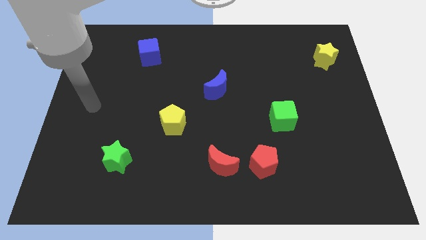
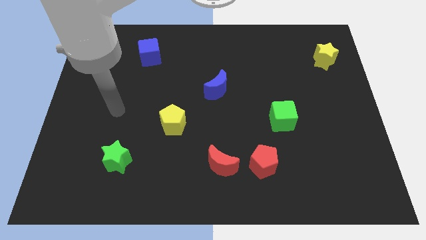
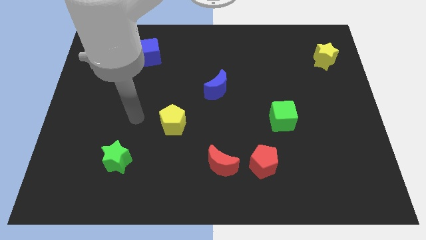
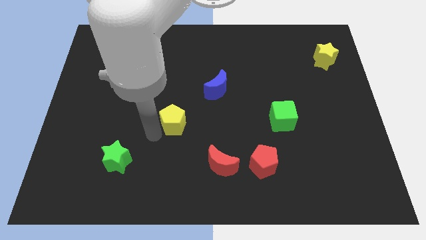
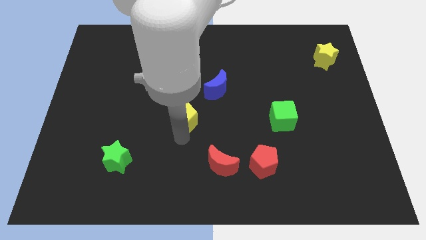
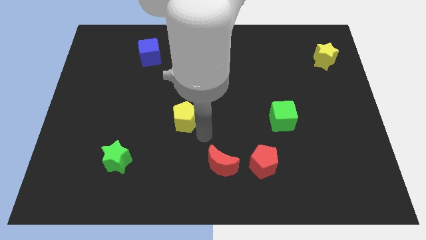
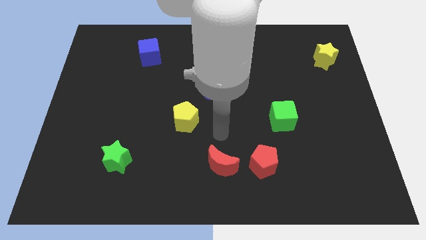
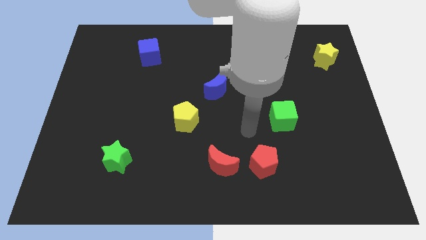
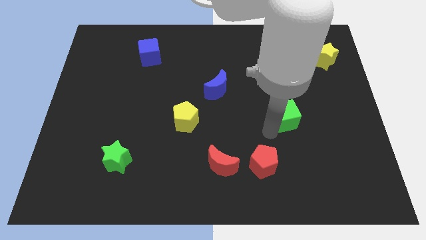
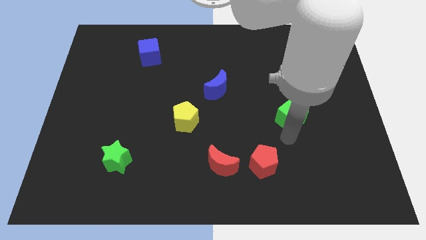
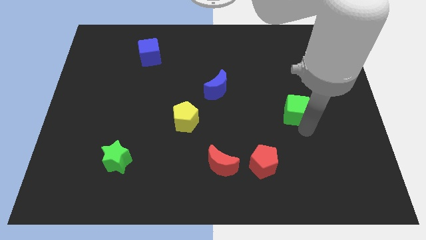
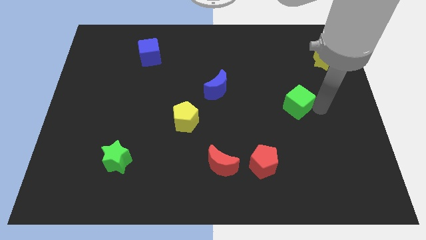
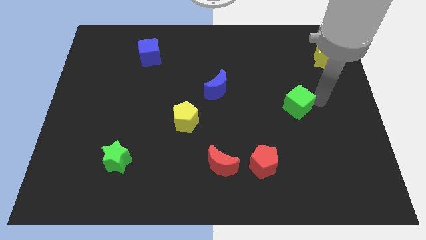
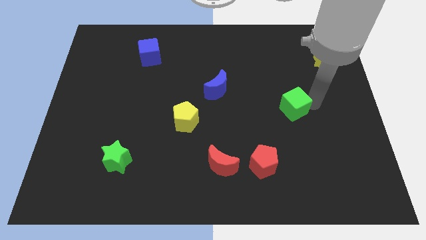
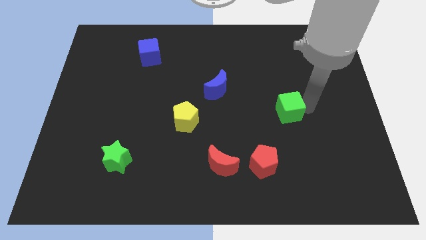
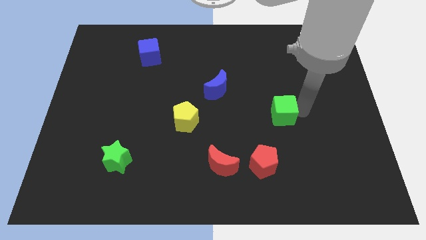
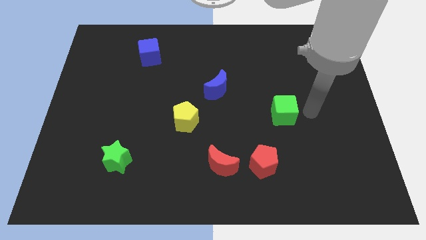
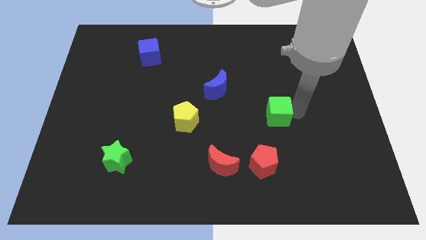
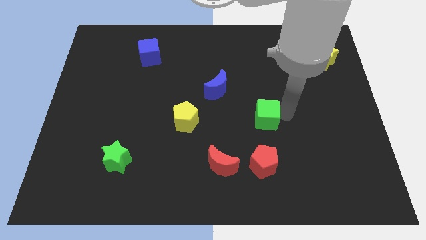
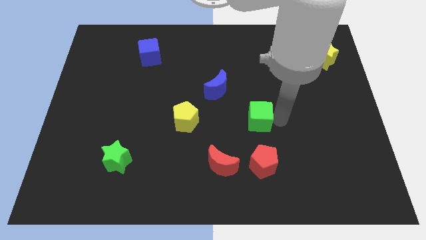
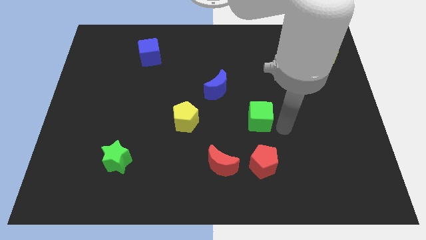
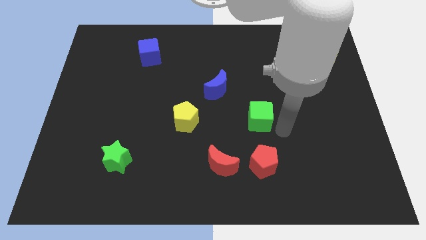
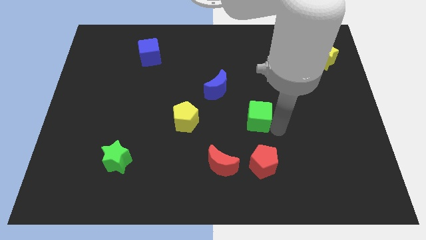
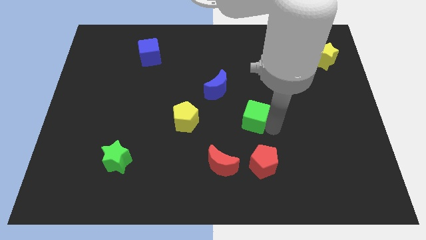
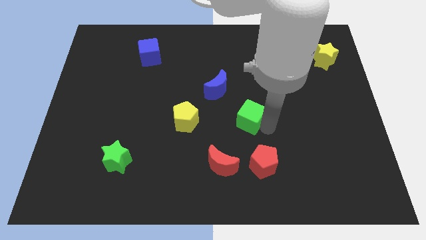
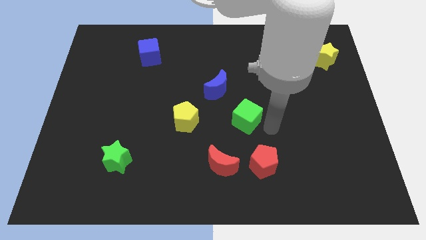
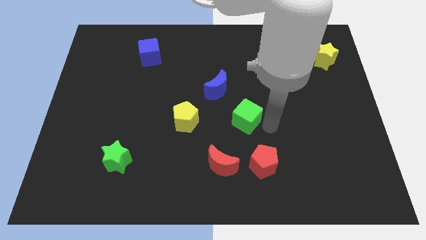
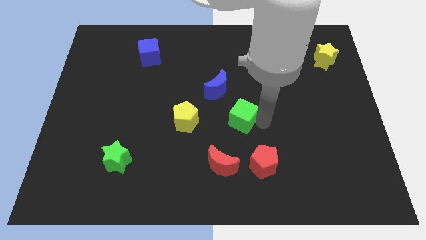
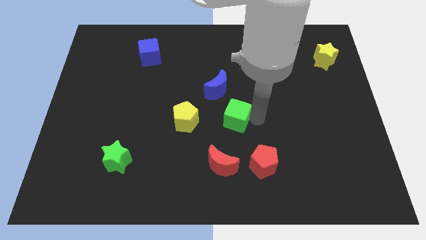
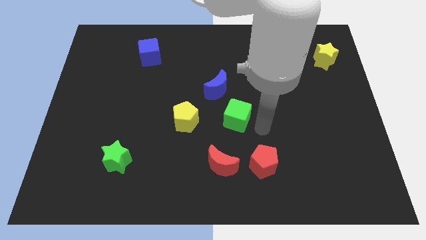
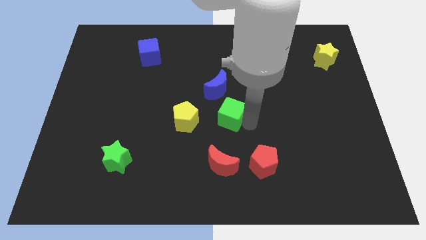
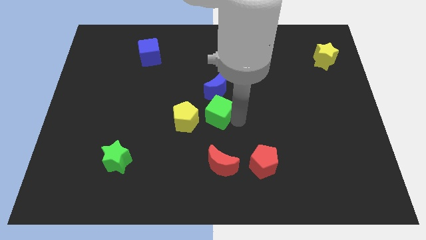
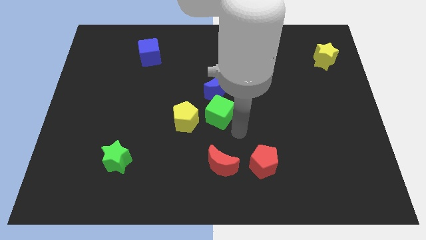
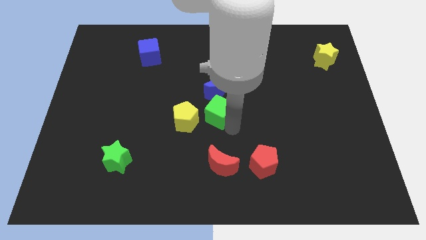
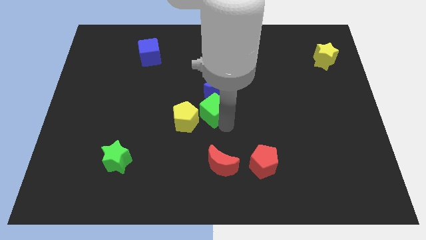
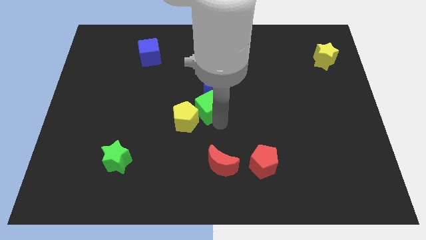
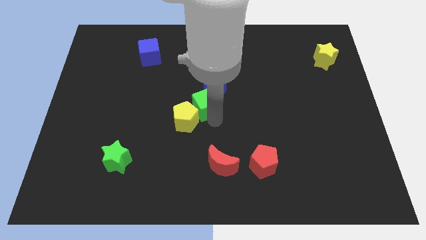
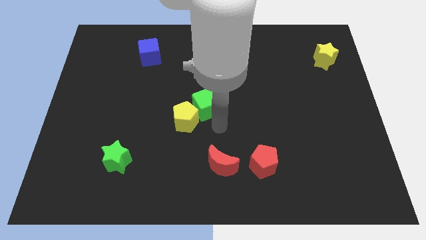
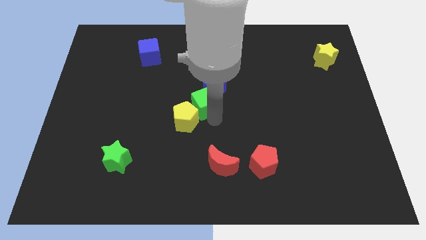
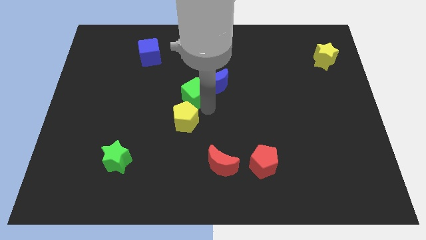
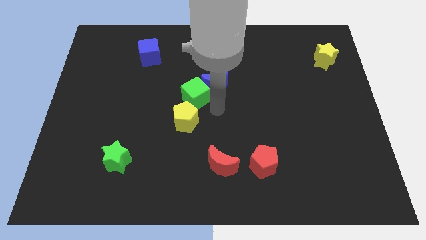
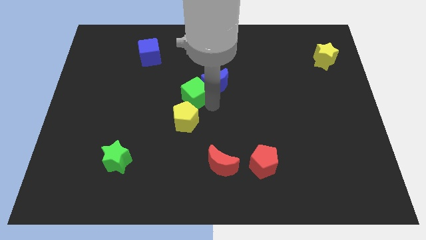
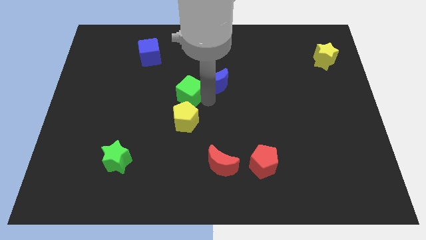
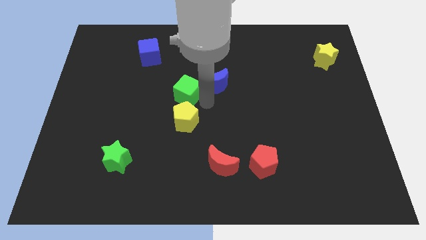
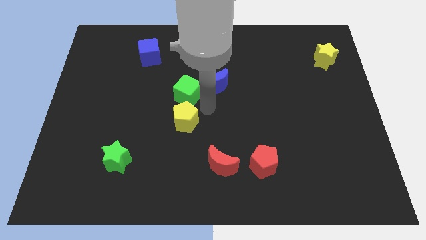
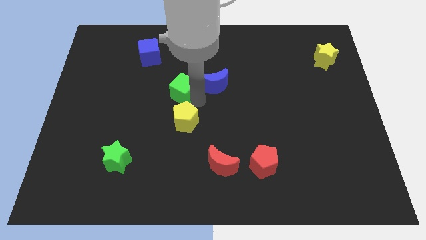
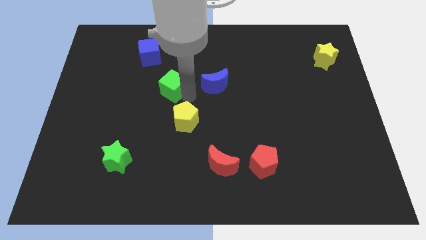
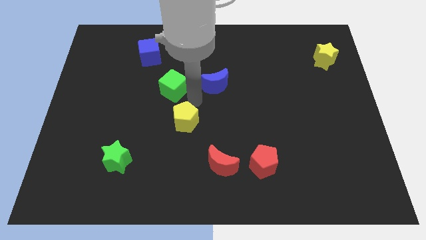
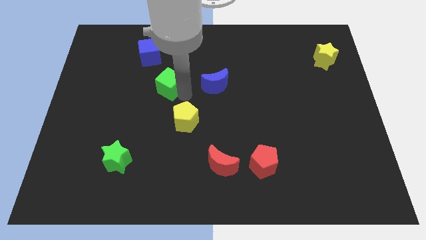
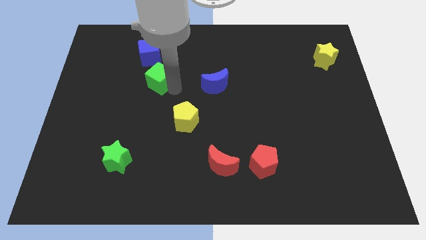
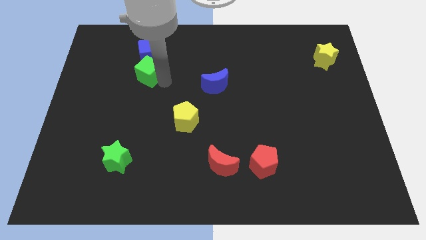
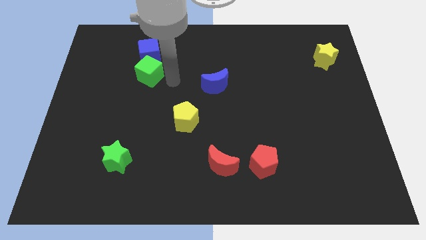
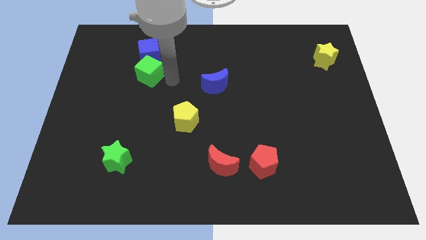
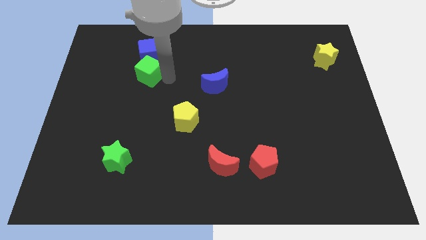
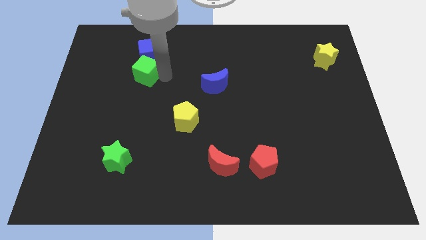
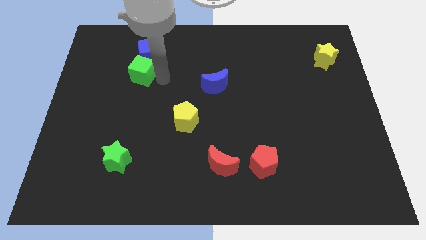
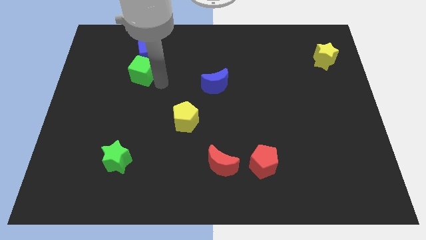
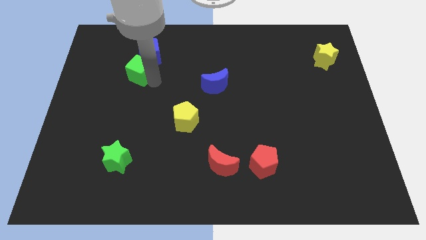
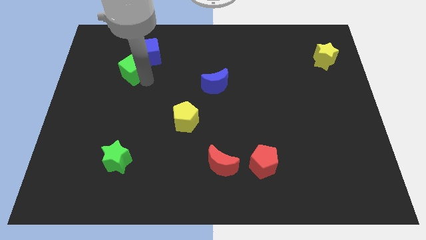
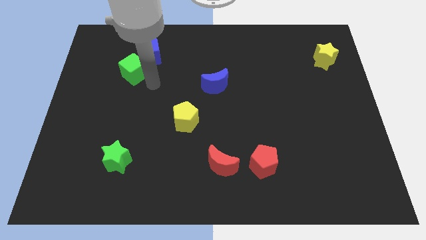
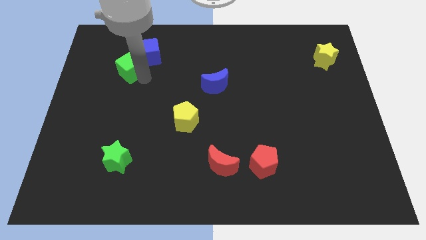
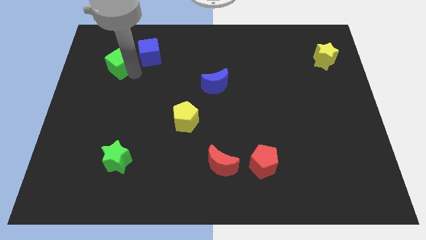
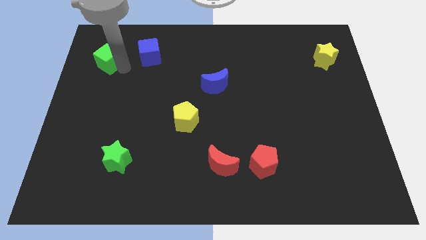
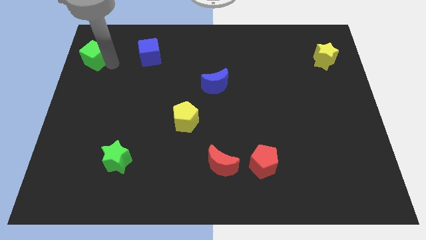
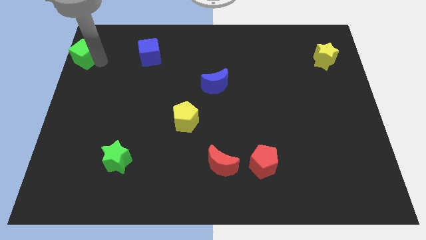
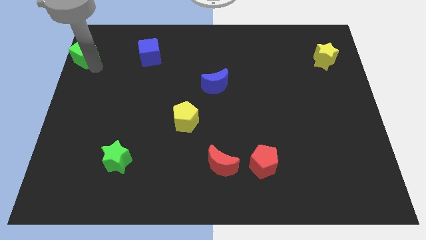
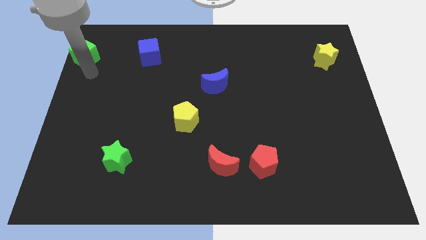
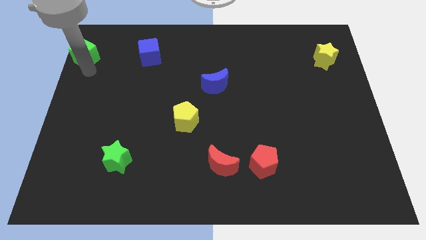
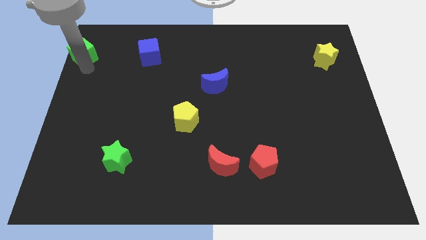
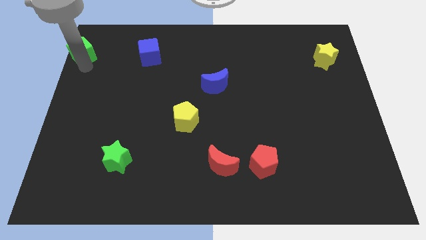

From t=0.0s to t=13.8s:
slide the green cube to the top left of the board
